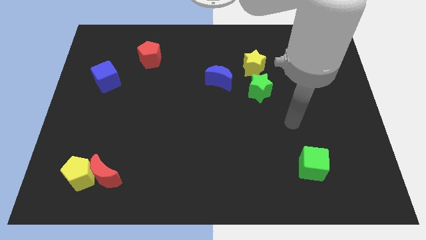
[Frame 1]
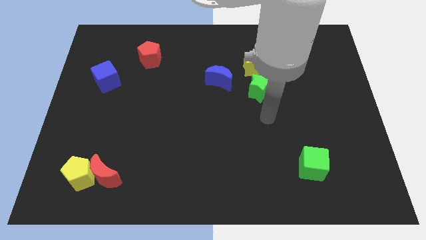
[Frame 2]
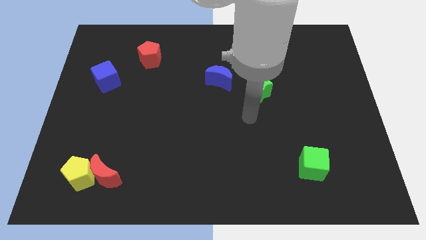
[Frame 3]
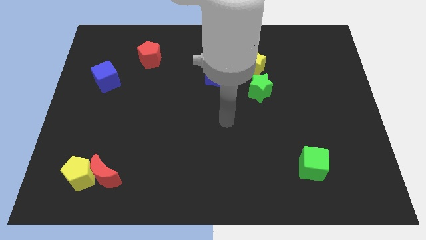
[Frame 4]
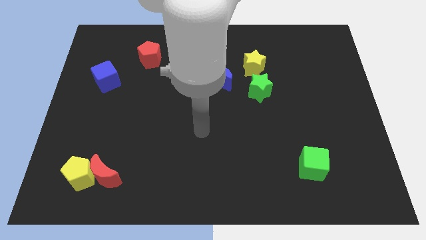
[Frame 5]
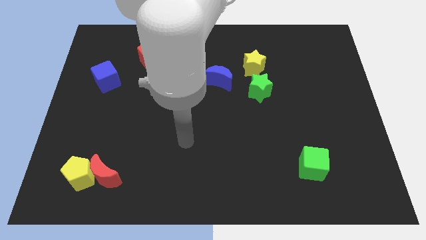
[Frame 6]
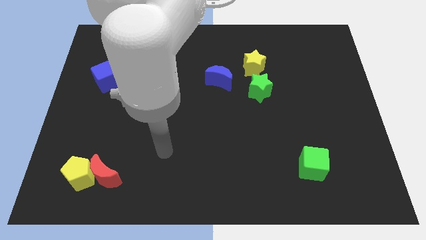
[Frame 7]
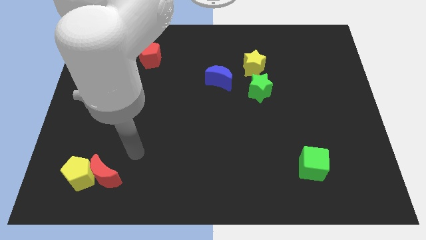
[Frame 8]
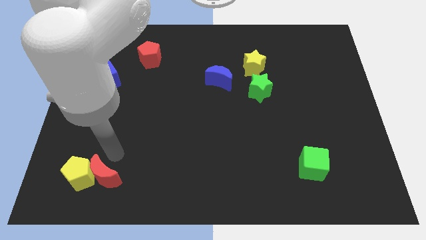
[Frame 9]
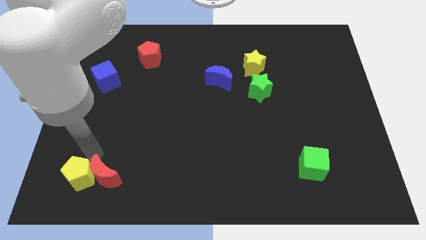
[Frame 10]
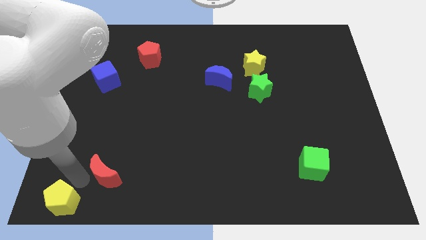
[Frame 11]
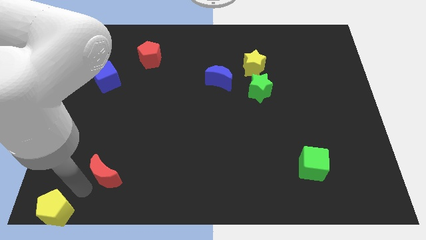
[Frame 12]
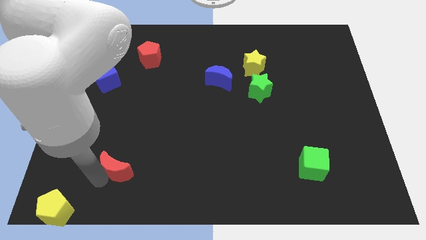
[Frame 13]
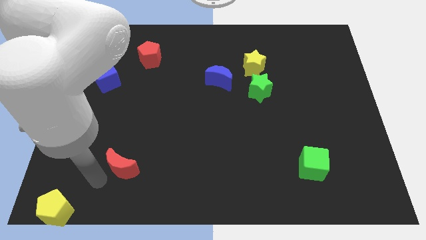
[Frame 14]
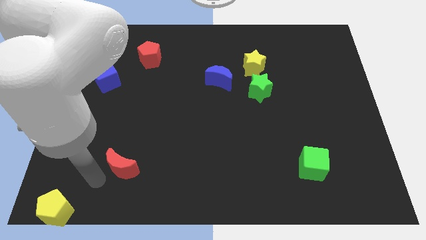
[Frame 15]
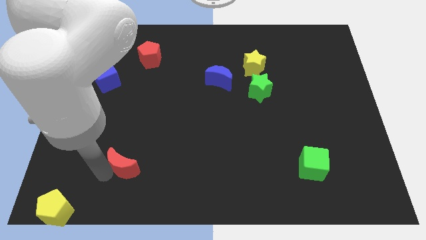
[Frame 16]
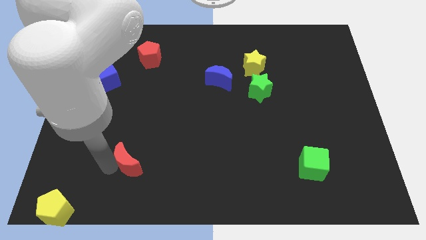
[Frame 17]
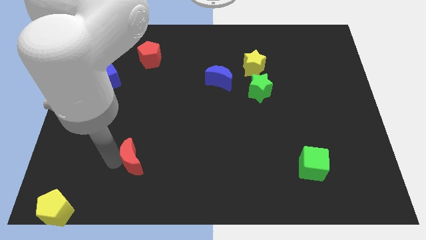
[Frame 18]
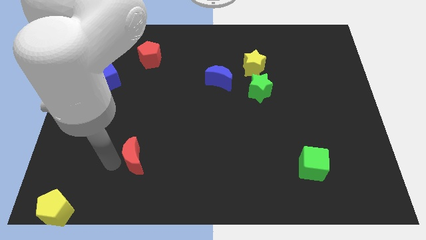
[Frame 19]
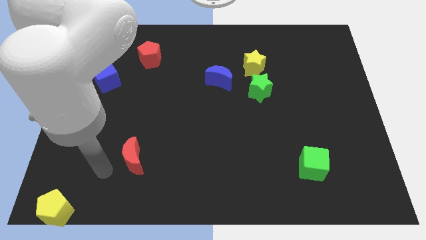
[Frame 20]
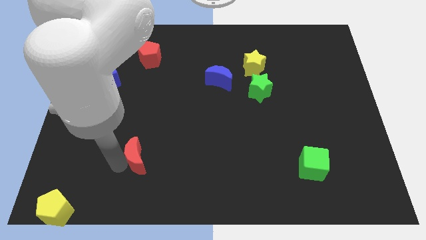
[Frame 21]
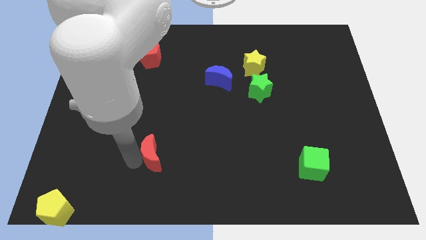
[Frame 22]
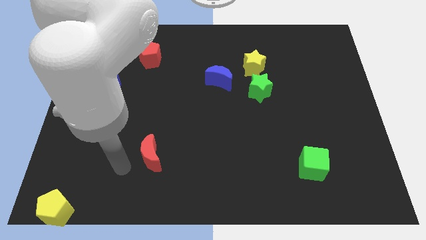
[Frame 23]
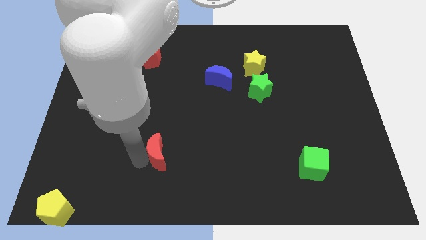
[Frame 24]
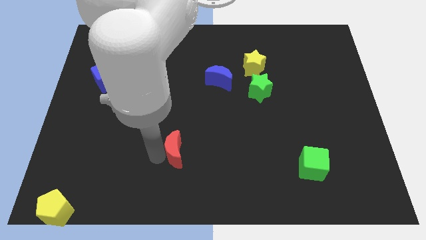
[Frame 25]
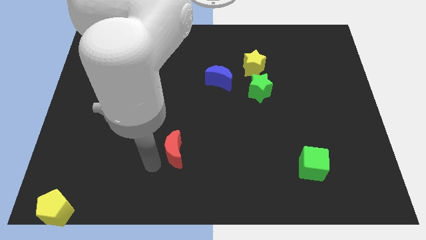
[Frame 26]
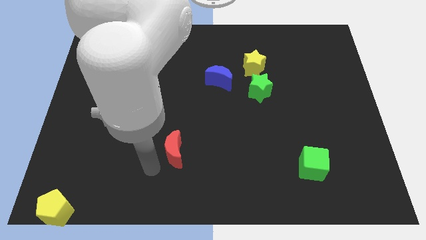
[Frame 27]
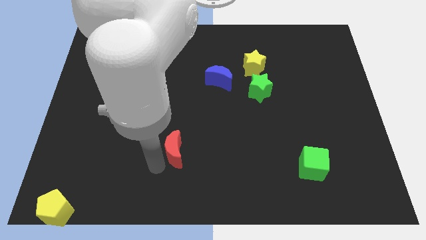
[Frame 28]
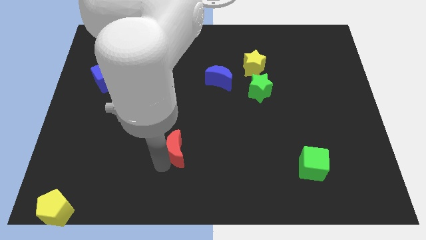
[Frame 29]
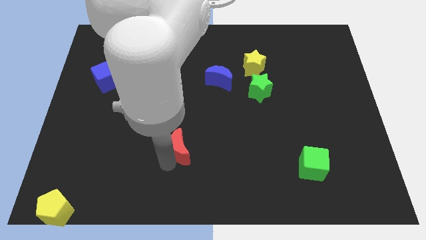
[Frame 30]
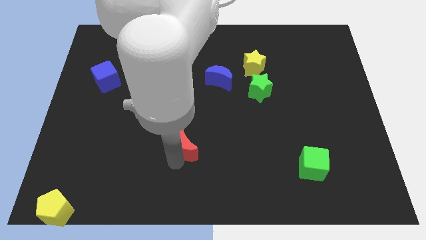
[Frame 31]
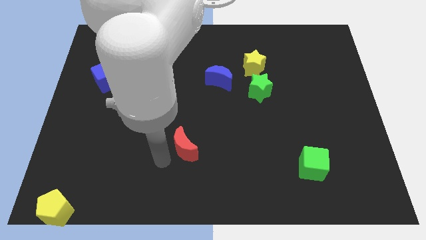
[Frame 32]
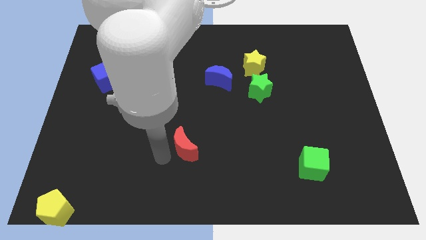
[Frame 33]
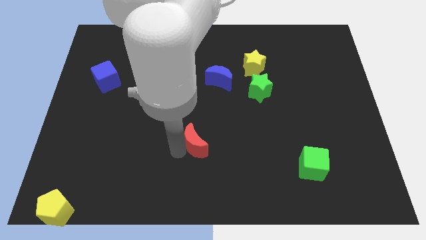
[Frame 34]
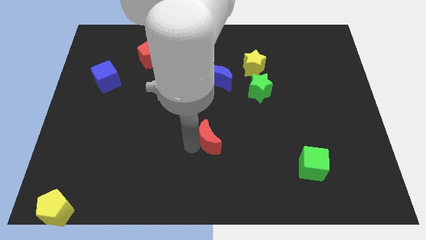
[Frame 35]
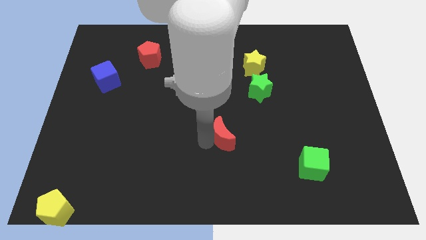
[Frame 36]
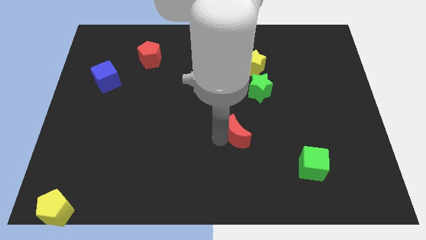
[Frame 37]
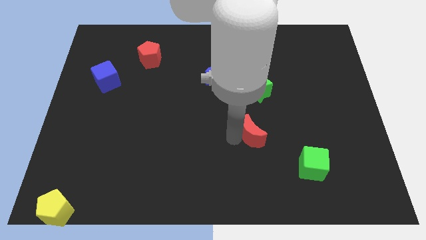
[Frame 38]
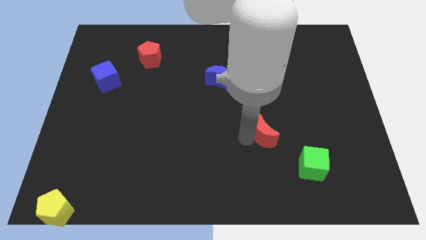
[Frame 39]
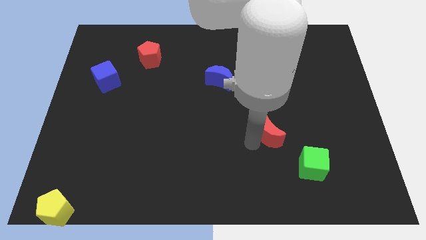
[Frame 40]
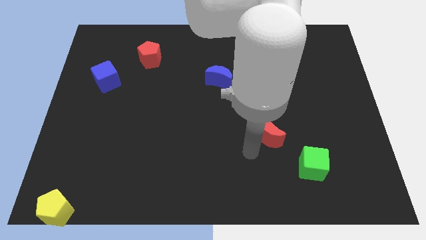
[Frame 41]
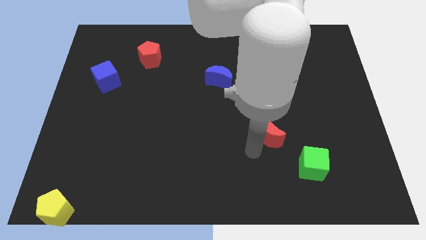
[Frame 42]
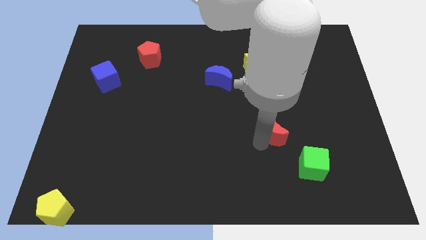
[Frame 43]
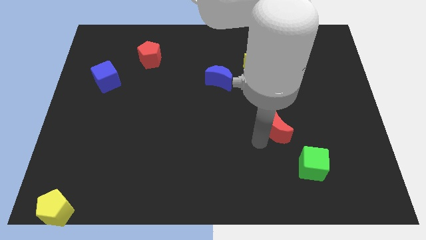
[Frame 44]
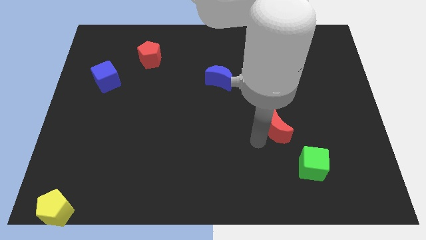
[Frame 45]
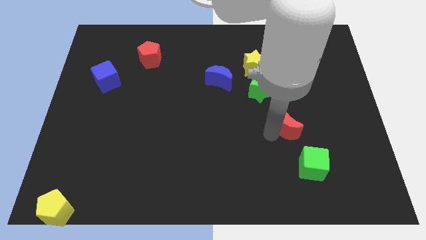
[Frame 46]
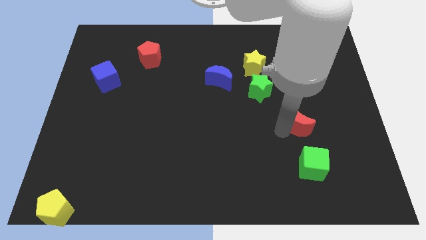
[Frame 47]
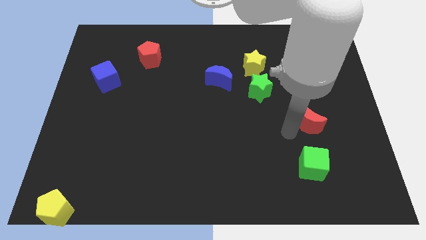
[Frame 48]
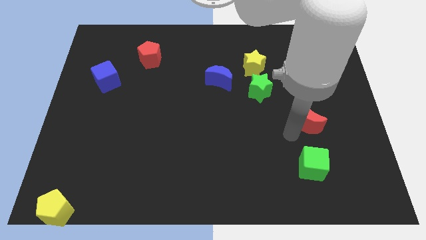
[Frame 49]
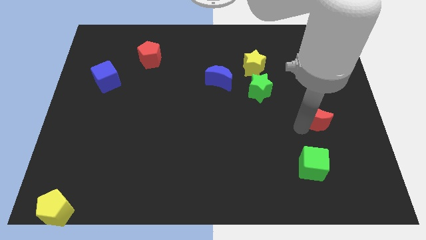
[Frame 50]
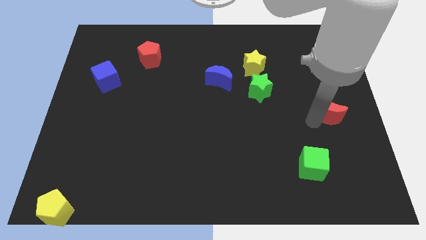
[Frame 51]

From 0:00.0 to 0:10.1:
put the red moon to the right side
